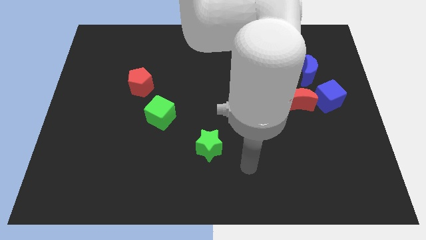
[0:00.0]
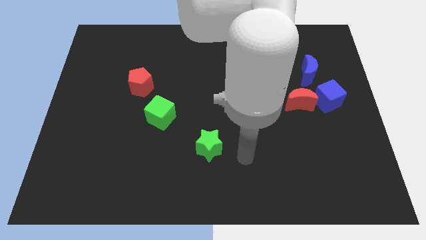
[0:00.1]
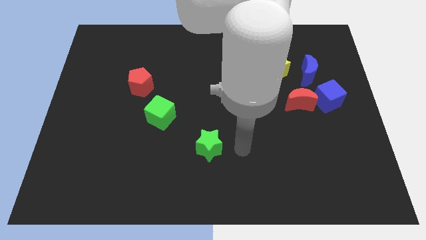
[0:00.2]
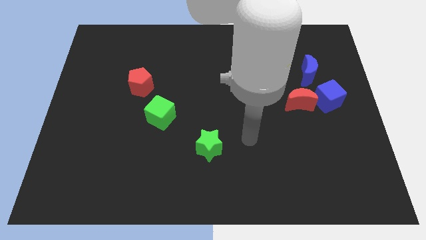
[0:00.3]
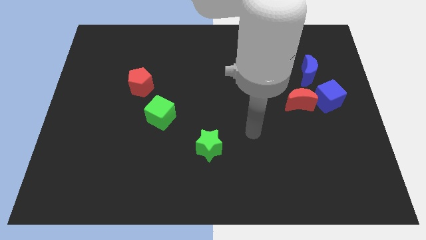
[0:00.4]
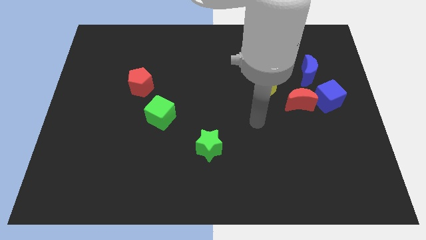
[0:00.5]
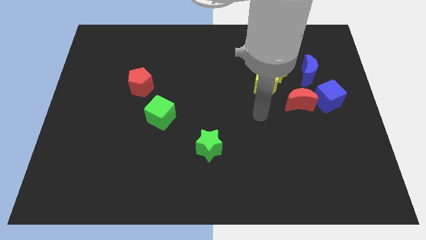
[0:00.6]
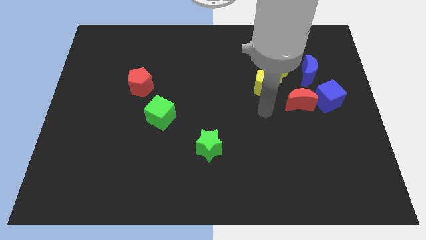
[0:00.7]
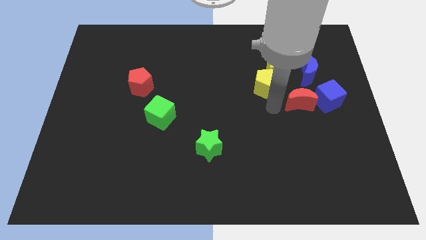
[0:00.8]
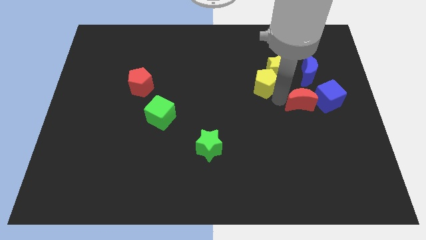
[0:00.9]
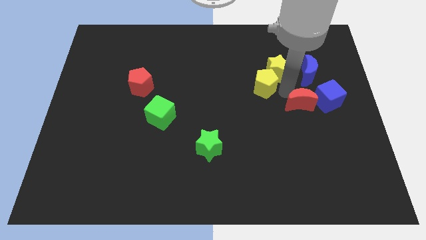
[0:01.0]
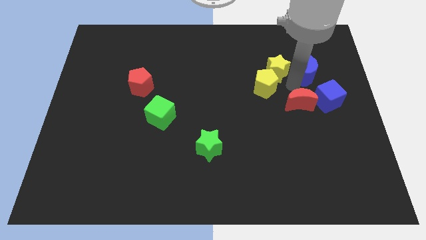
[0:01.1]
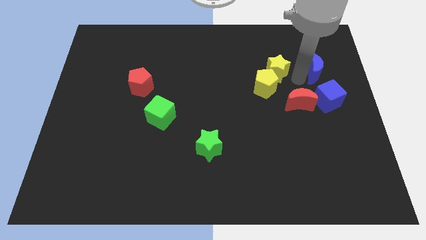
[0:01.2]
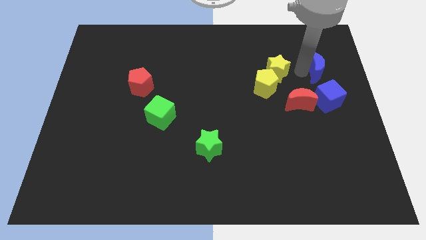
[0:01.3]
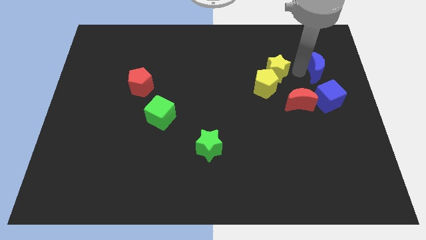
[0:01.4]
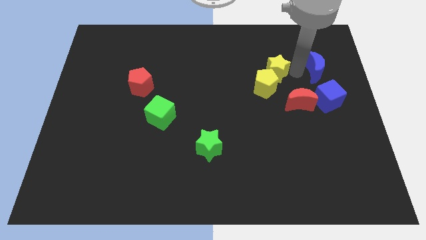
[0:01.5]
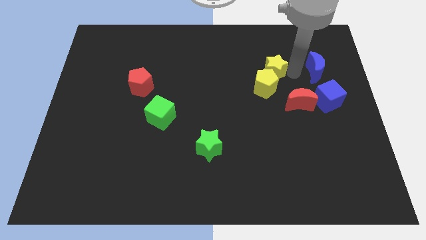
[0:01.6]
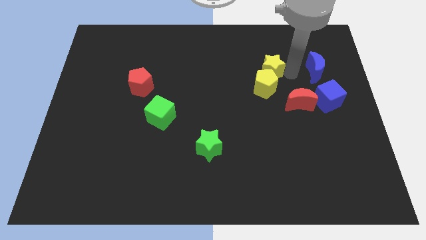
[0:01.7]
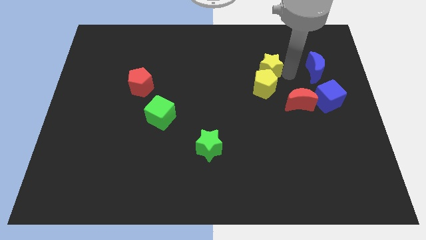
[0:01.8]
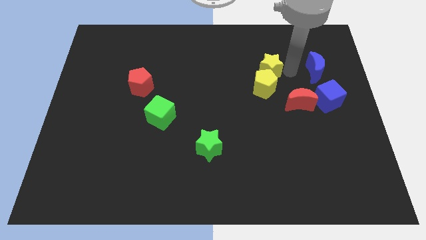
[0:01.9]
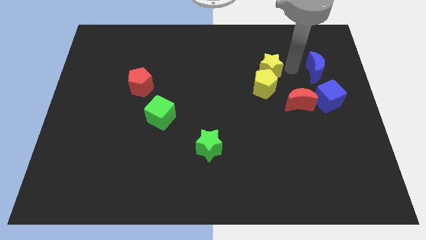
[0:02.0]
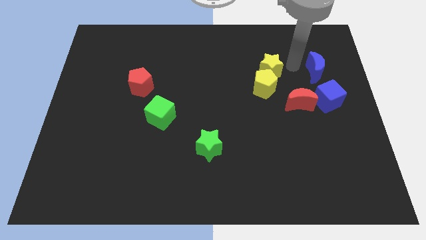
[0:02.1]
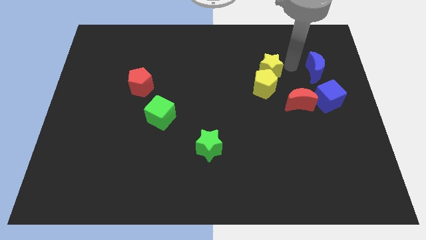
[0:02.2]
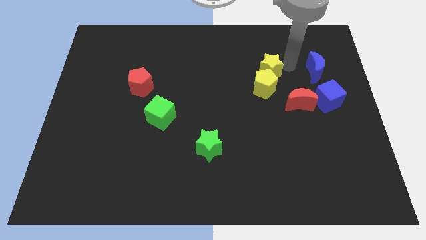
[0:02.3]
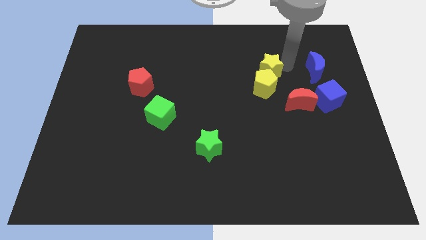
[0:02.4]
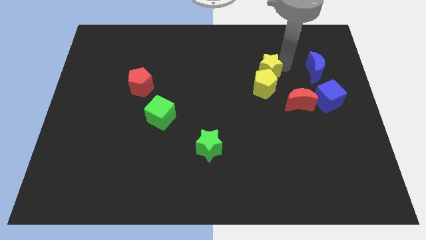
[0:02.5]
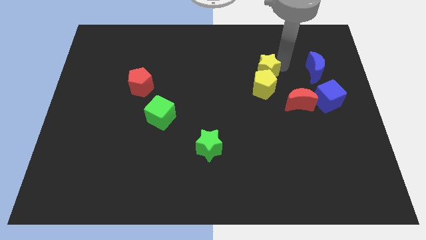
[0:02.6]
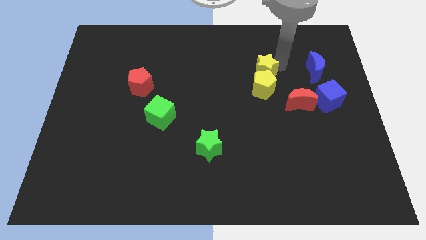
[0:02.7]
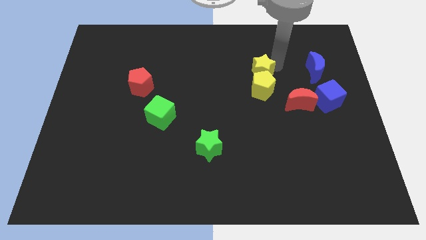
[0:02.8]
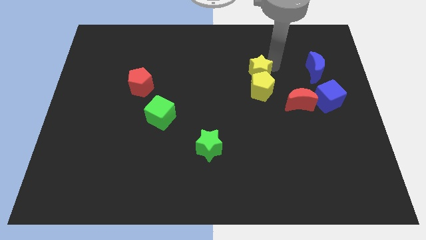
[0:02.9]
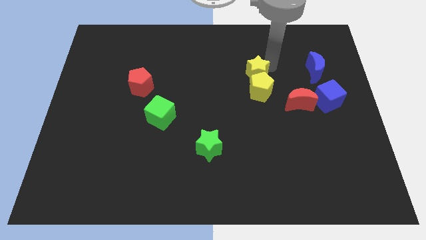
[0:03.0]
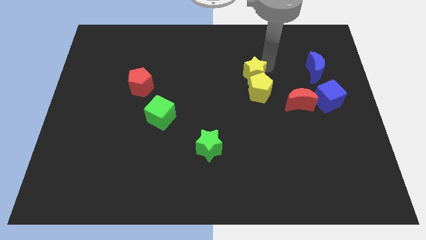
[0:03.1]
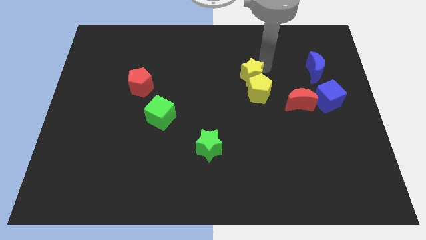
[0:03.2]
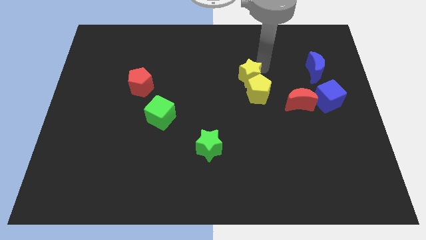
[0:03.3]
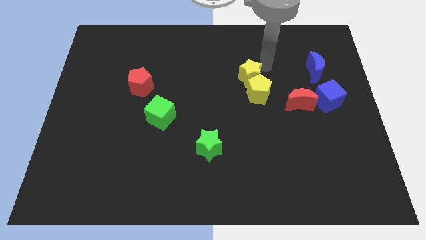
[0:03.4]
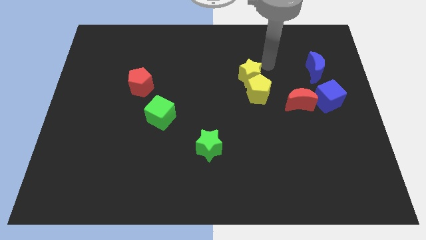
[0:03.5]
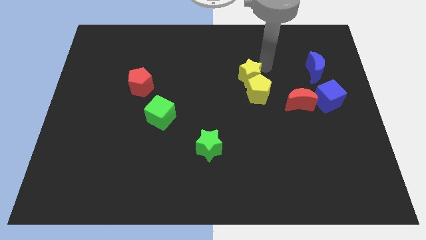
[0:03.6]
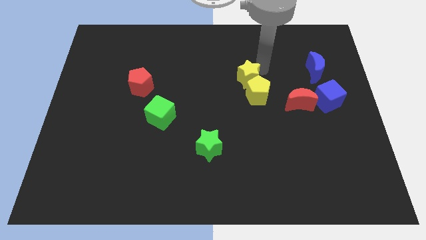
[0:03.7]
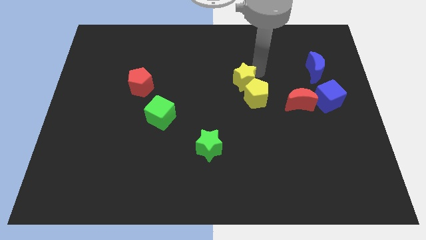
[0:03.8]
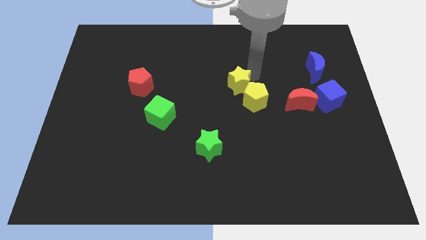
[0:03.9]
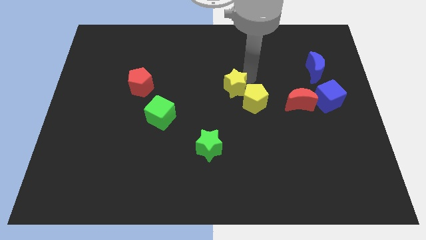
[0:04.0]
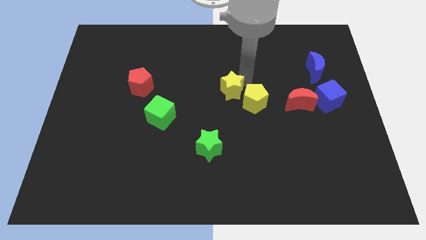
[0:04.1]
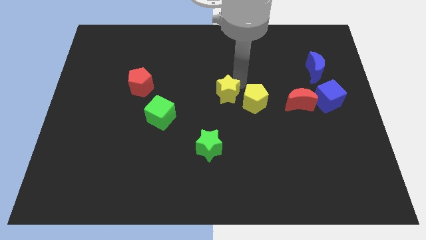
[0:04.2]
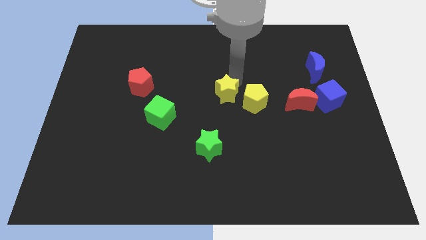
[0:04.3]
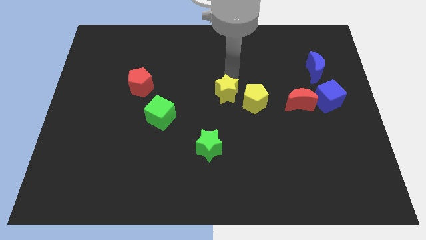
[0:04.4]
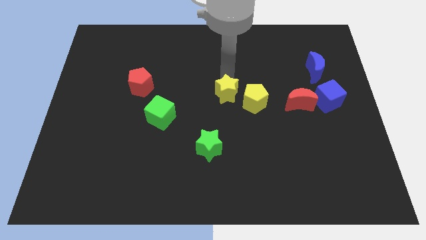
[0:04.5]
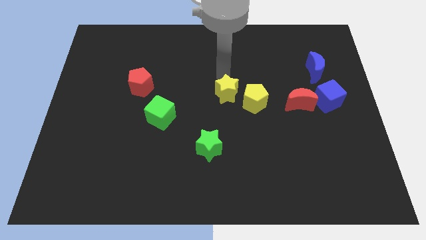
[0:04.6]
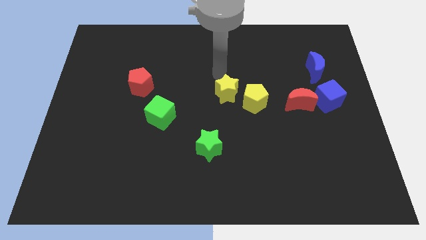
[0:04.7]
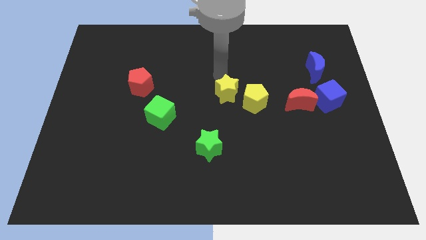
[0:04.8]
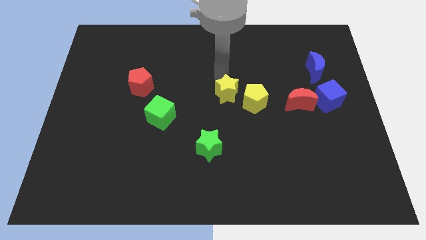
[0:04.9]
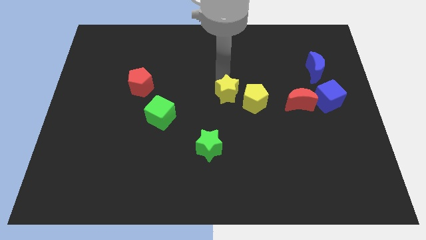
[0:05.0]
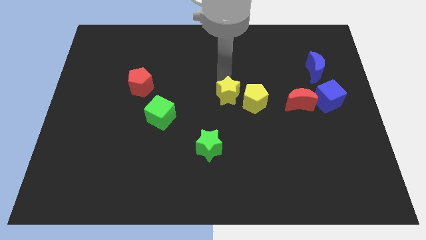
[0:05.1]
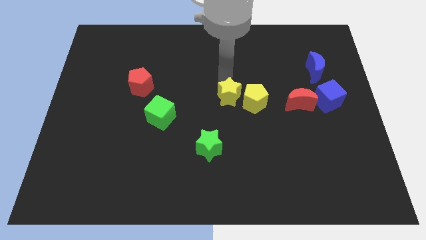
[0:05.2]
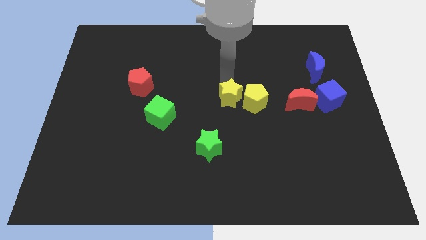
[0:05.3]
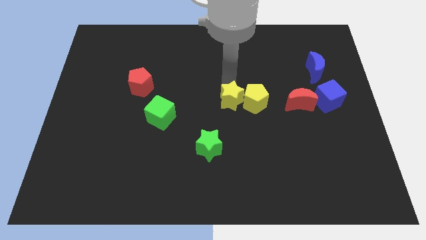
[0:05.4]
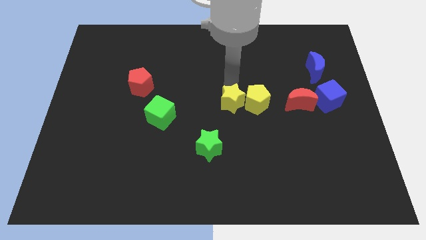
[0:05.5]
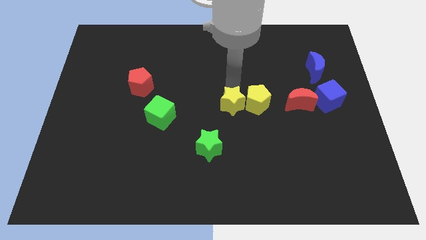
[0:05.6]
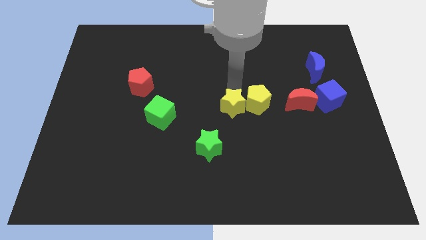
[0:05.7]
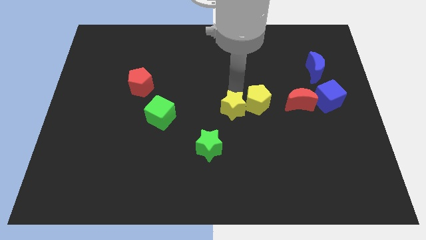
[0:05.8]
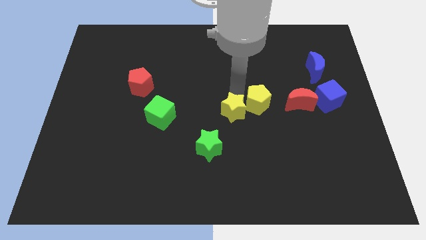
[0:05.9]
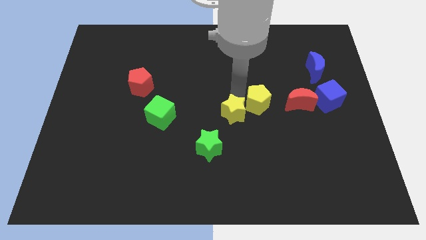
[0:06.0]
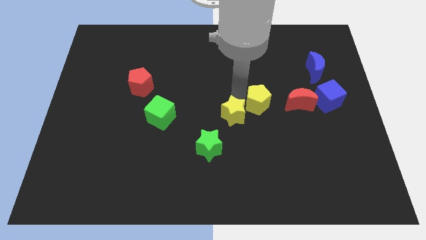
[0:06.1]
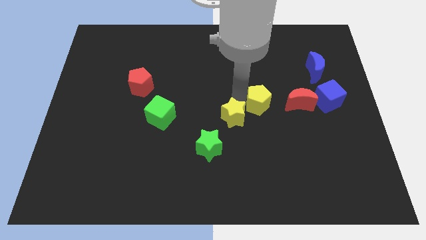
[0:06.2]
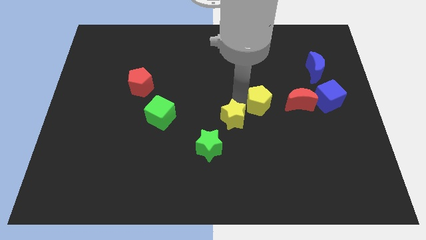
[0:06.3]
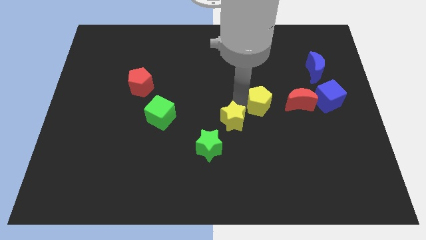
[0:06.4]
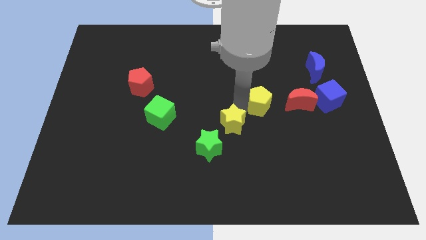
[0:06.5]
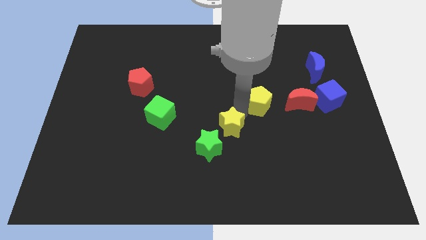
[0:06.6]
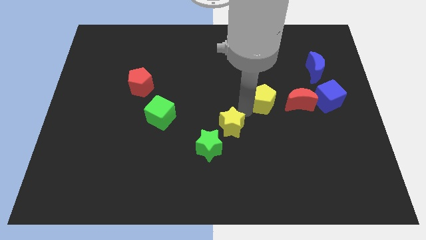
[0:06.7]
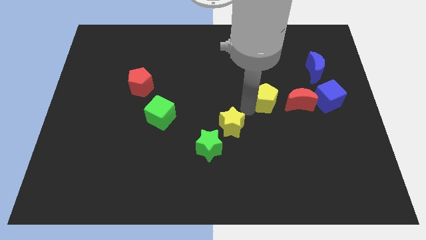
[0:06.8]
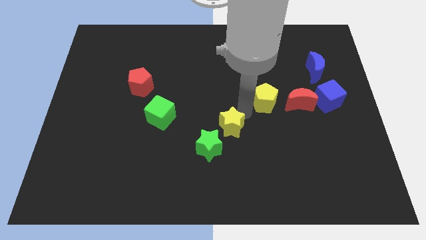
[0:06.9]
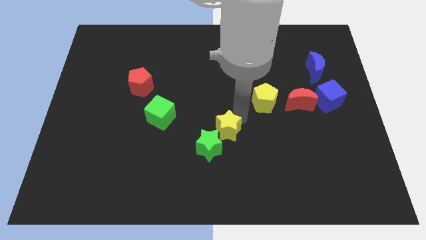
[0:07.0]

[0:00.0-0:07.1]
put the yellow star close to the green star
